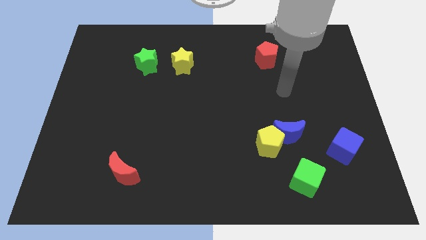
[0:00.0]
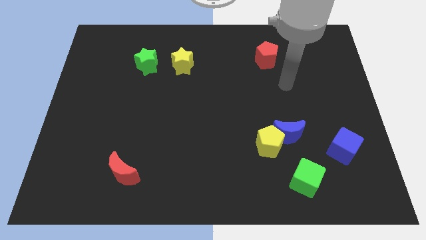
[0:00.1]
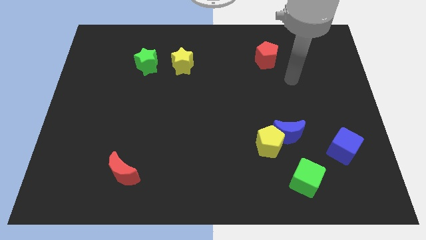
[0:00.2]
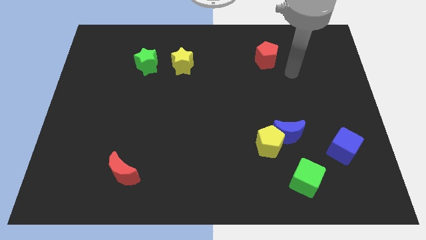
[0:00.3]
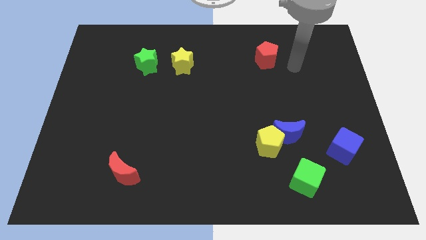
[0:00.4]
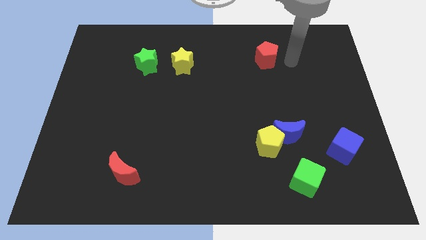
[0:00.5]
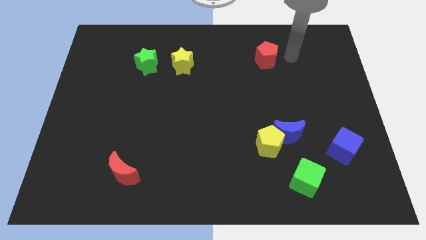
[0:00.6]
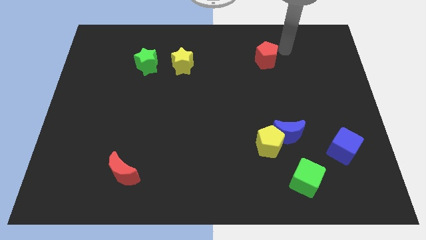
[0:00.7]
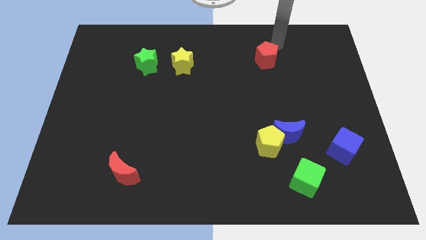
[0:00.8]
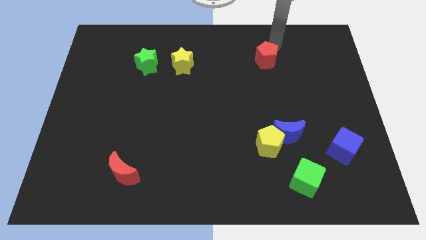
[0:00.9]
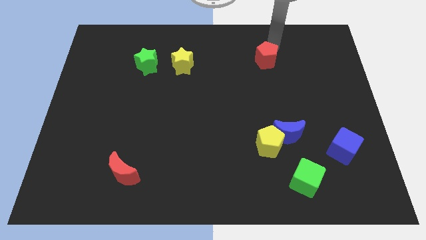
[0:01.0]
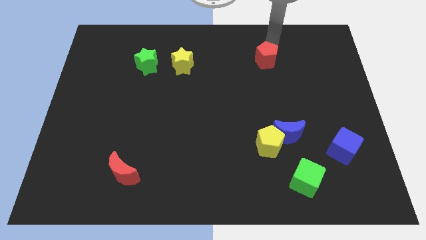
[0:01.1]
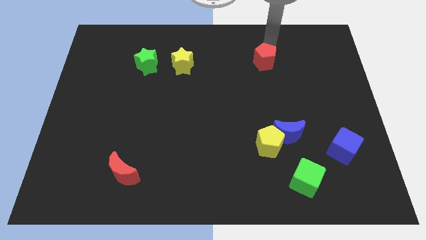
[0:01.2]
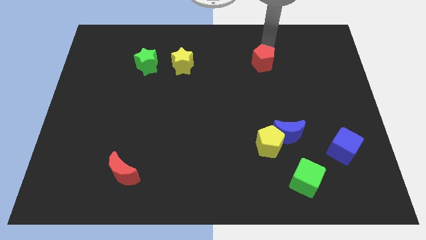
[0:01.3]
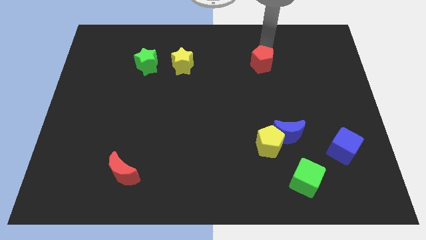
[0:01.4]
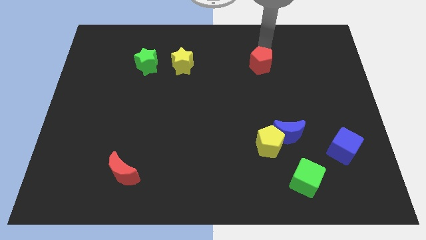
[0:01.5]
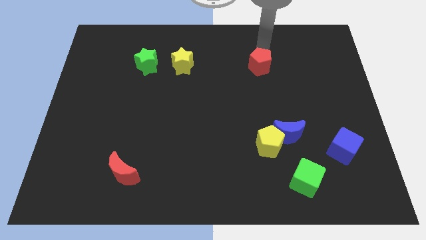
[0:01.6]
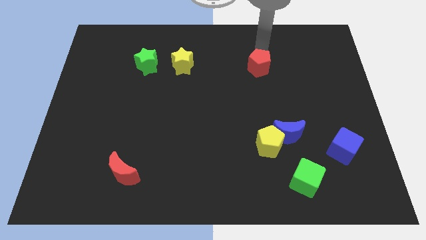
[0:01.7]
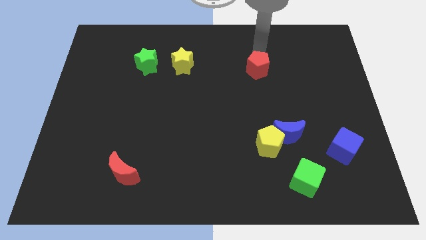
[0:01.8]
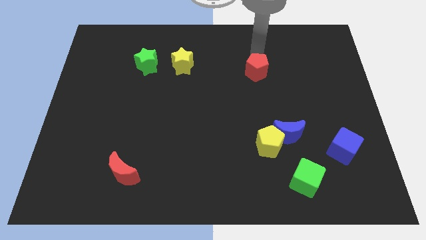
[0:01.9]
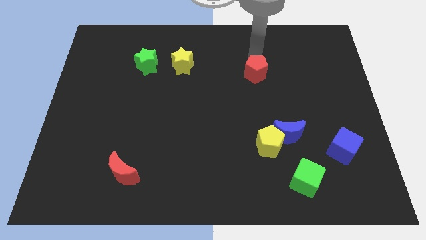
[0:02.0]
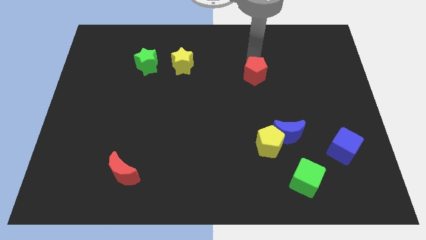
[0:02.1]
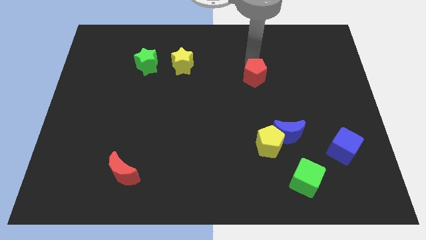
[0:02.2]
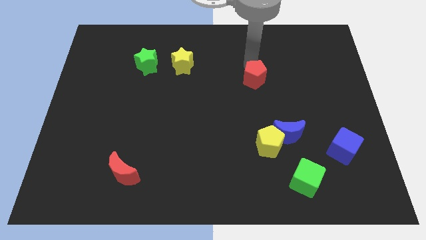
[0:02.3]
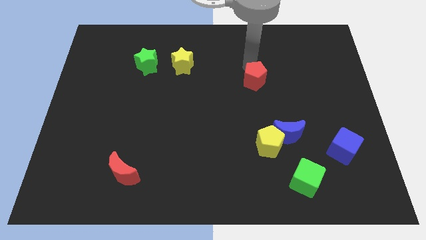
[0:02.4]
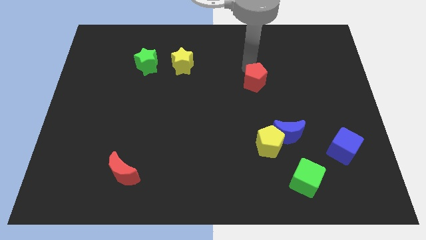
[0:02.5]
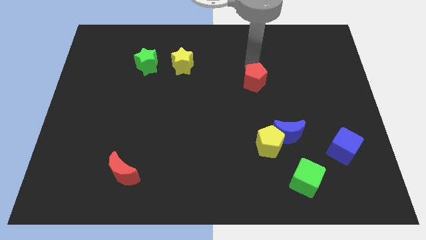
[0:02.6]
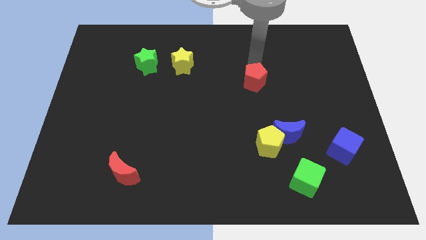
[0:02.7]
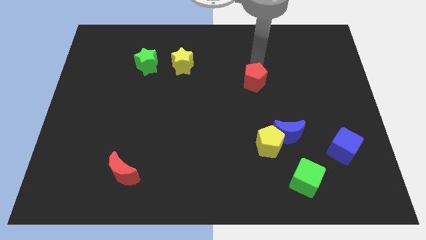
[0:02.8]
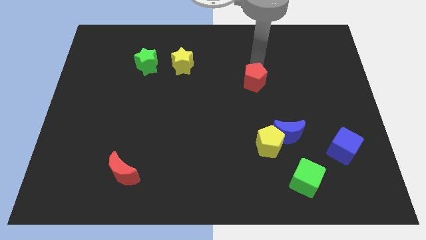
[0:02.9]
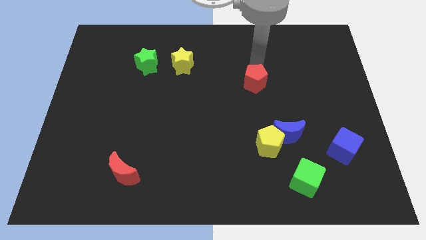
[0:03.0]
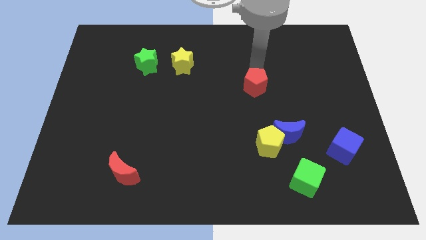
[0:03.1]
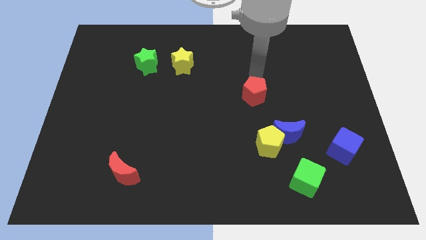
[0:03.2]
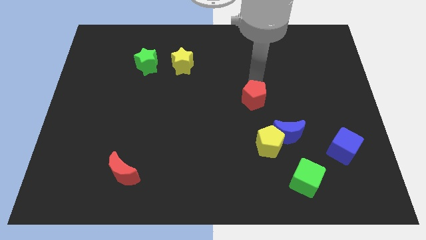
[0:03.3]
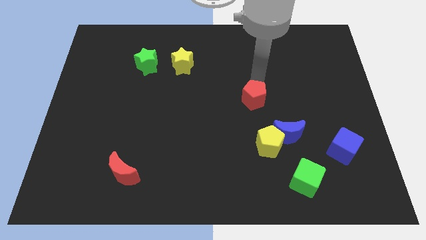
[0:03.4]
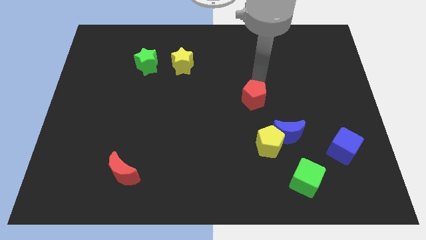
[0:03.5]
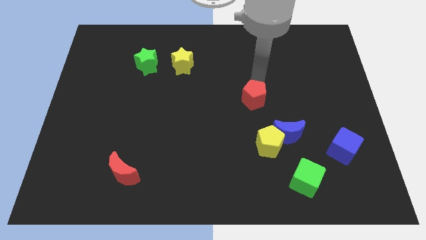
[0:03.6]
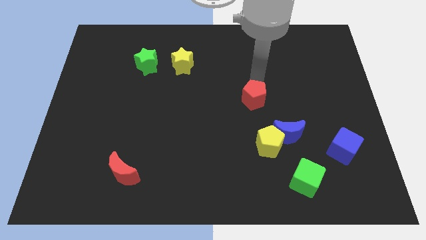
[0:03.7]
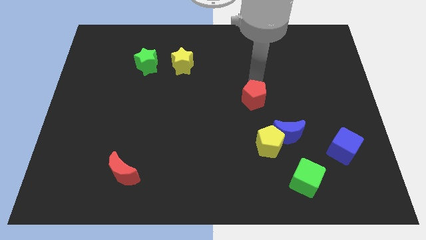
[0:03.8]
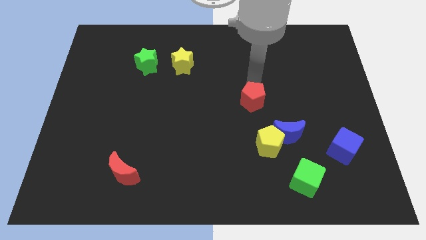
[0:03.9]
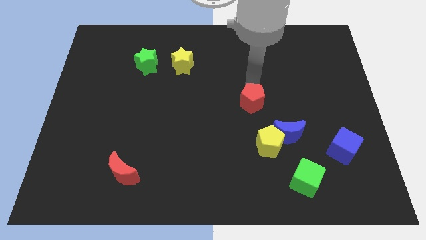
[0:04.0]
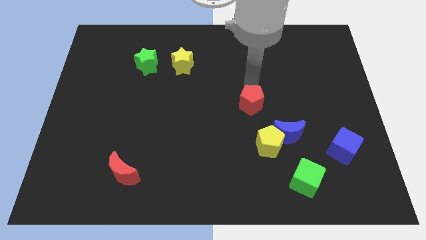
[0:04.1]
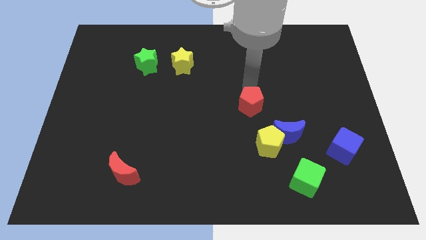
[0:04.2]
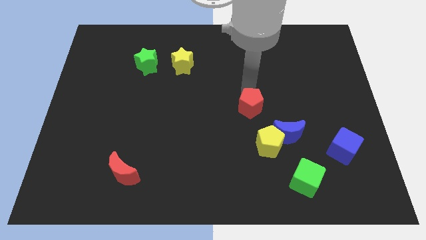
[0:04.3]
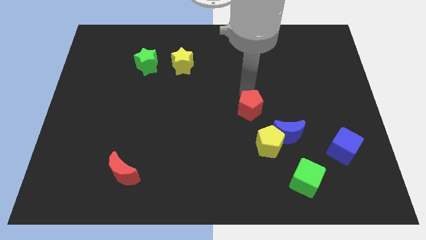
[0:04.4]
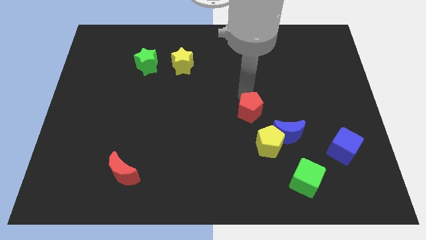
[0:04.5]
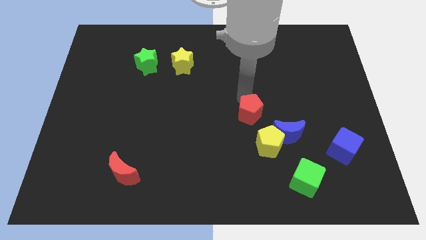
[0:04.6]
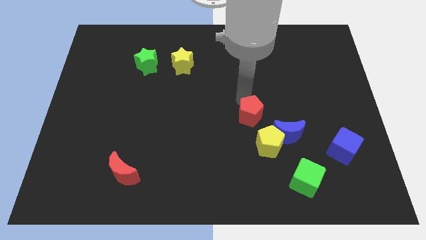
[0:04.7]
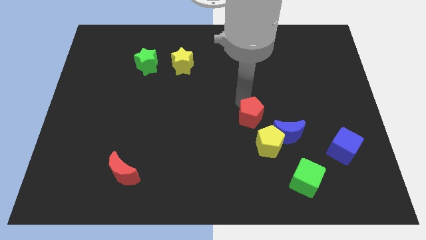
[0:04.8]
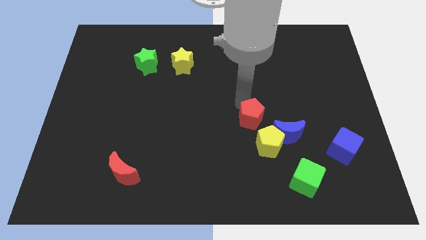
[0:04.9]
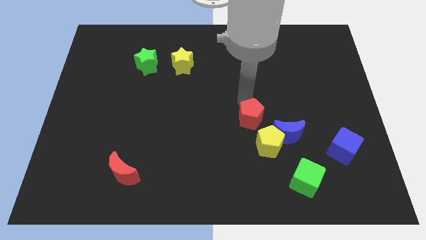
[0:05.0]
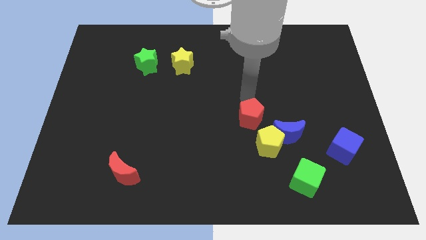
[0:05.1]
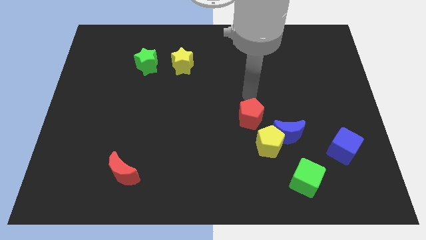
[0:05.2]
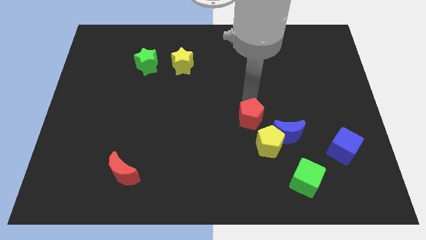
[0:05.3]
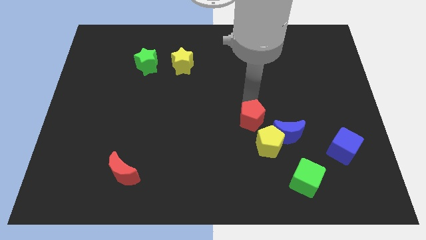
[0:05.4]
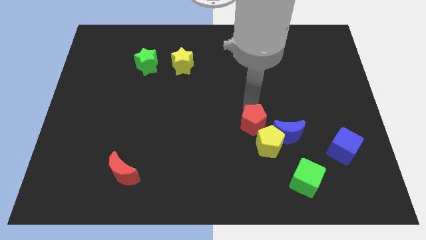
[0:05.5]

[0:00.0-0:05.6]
slide the red pentagon down

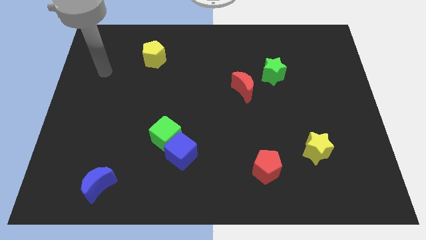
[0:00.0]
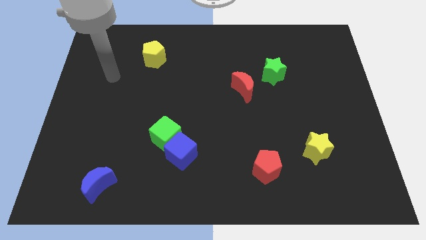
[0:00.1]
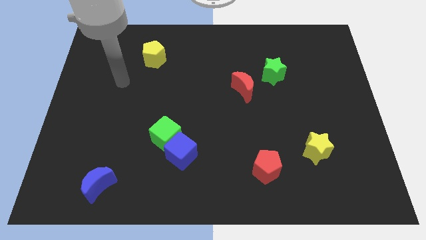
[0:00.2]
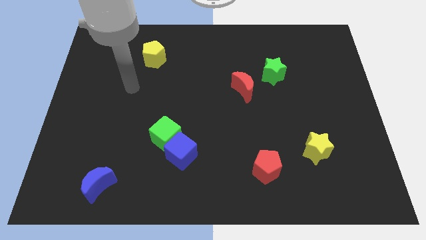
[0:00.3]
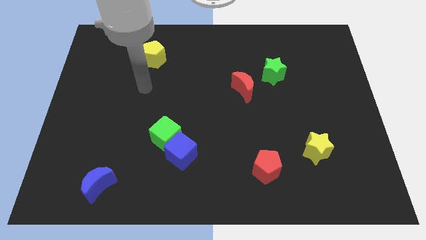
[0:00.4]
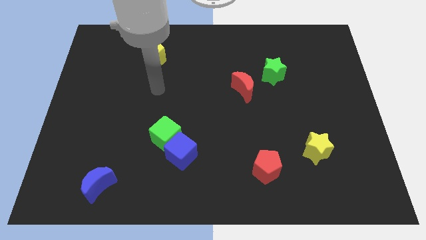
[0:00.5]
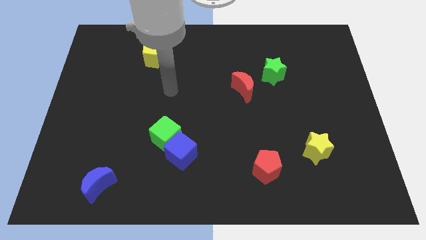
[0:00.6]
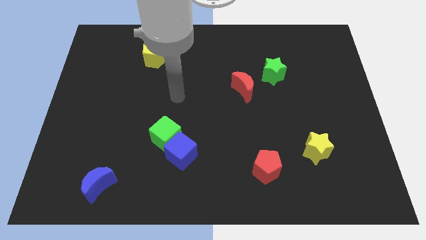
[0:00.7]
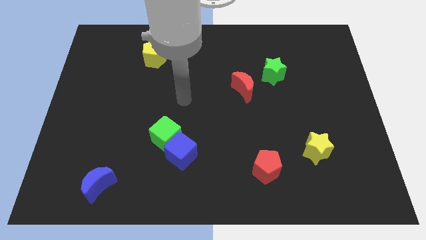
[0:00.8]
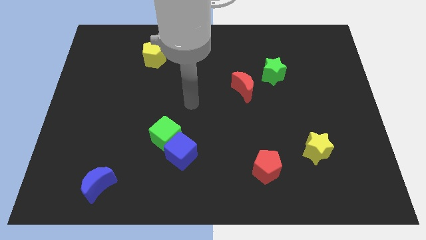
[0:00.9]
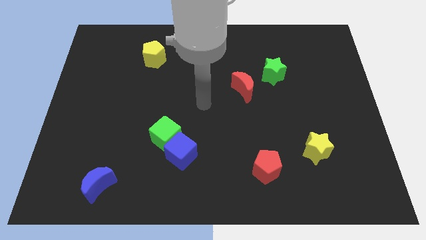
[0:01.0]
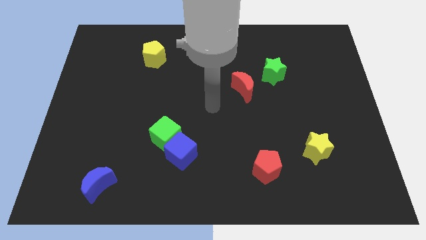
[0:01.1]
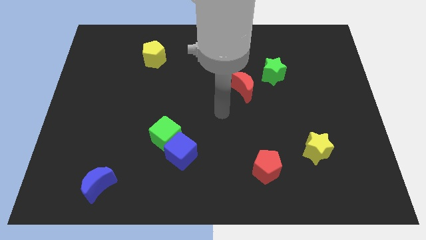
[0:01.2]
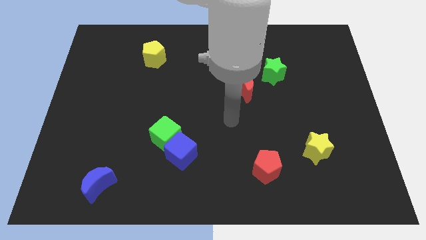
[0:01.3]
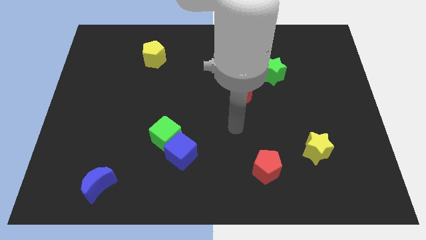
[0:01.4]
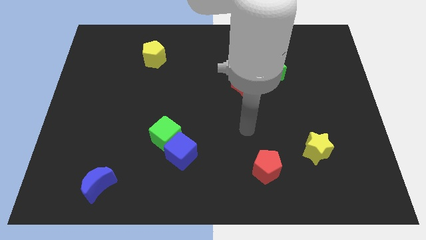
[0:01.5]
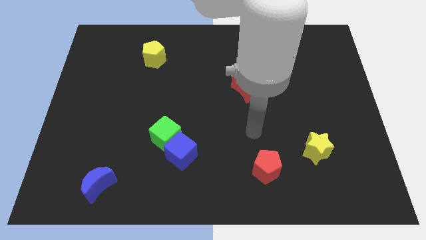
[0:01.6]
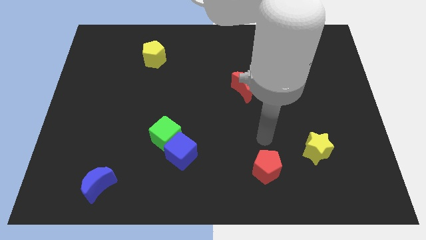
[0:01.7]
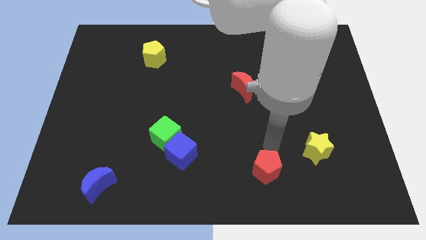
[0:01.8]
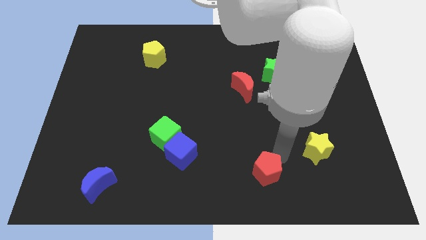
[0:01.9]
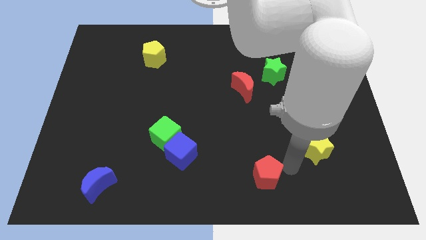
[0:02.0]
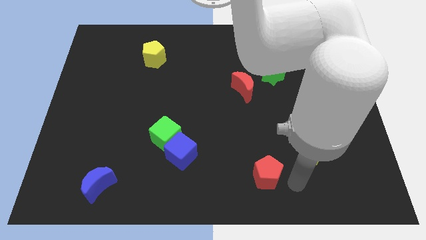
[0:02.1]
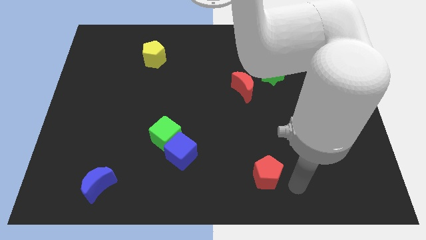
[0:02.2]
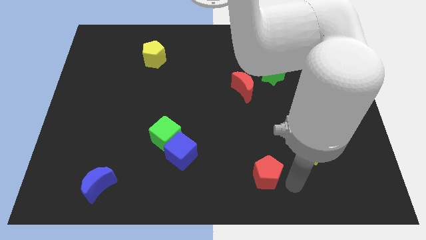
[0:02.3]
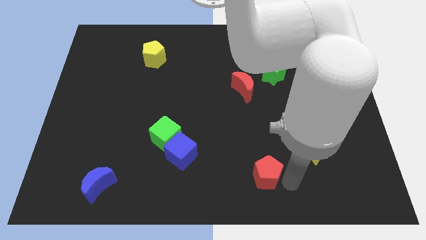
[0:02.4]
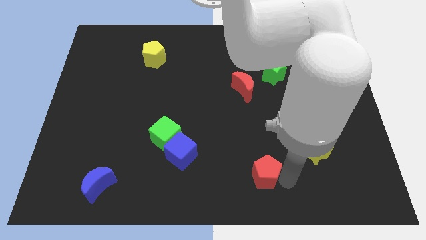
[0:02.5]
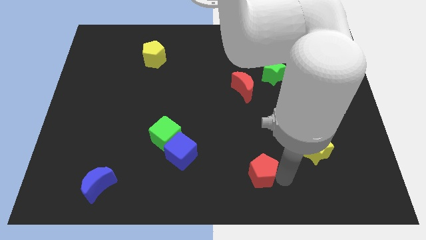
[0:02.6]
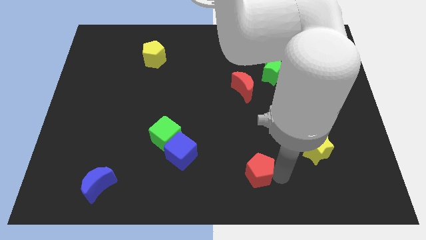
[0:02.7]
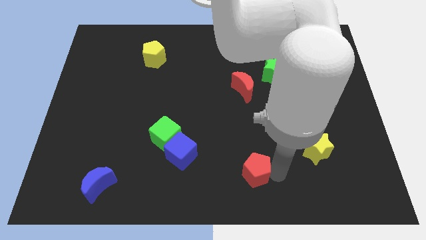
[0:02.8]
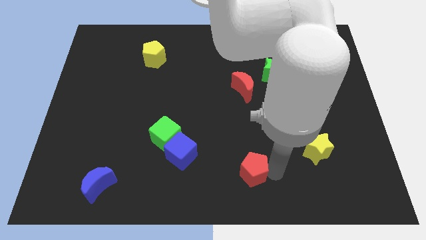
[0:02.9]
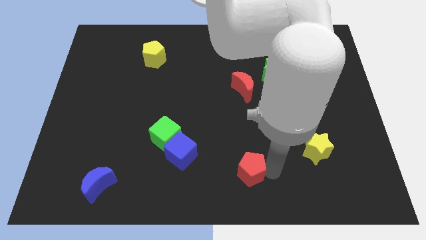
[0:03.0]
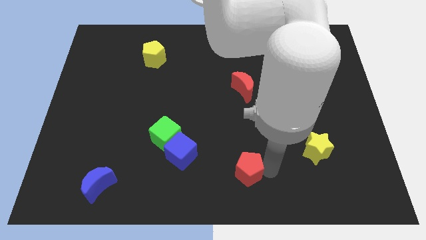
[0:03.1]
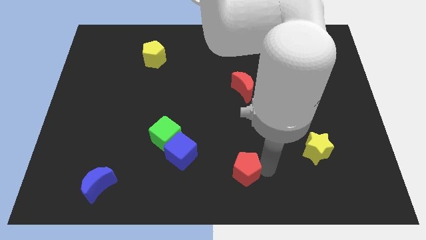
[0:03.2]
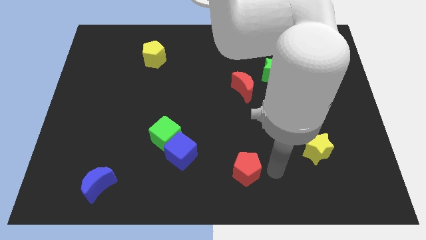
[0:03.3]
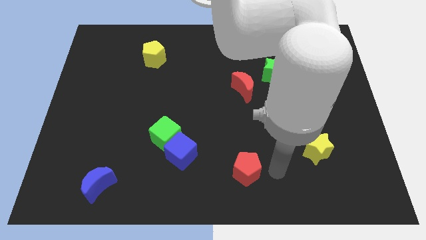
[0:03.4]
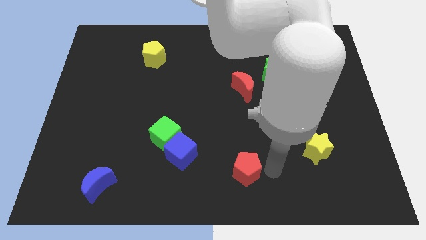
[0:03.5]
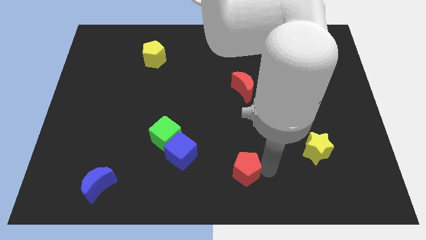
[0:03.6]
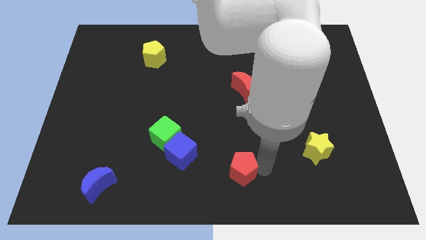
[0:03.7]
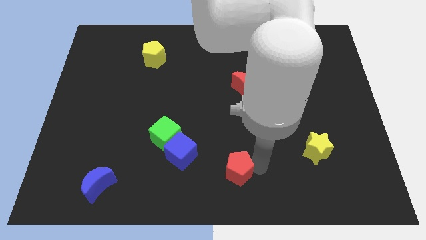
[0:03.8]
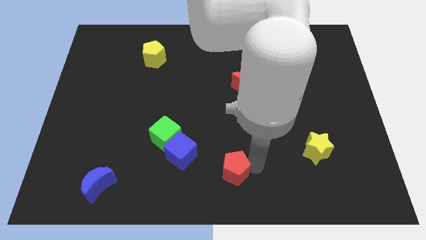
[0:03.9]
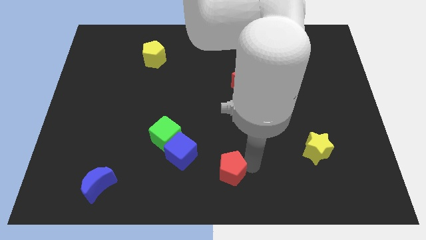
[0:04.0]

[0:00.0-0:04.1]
slightly push the red pentagon to the left
